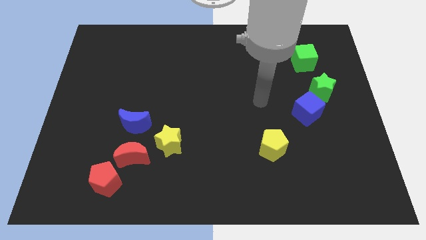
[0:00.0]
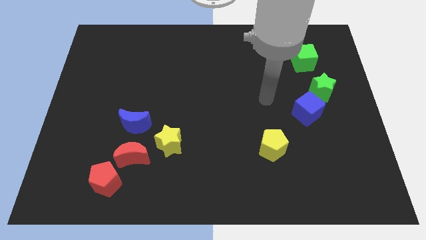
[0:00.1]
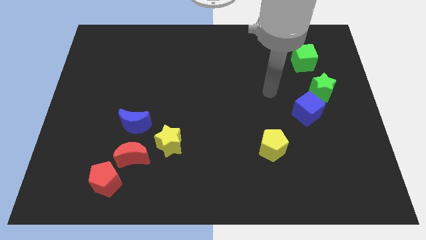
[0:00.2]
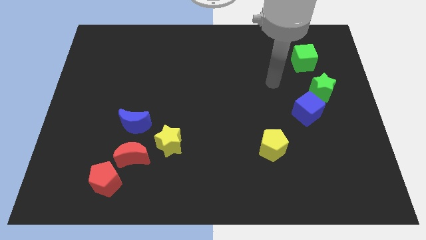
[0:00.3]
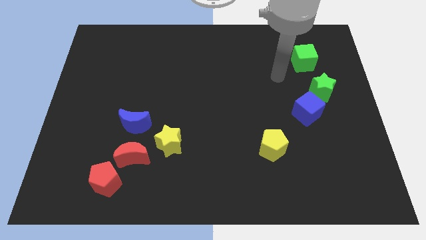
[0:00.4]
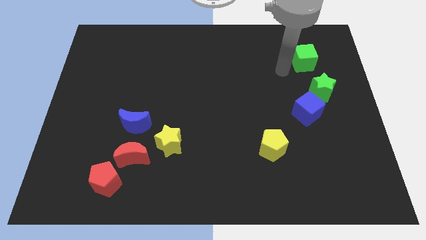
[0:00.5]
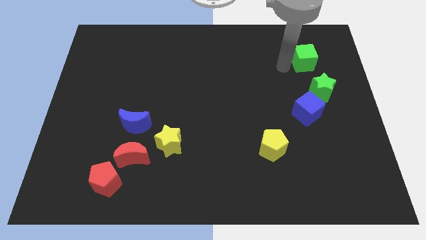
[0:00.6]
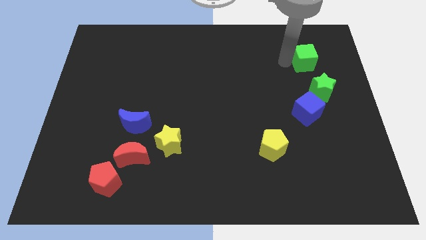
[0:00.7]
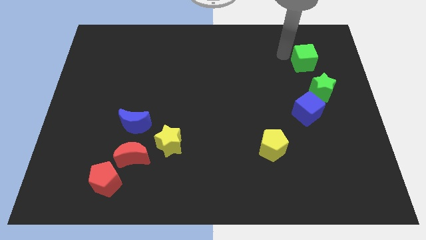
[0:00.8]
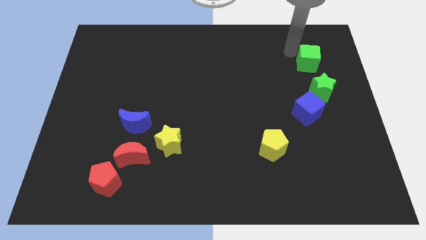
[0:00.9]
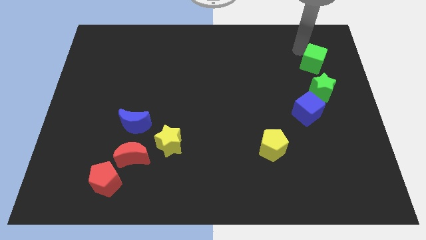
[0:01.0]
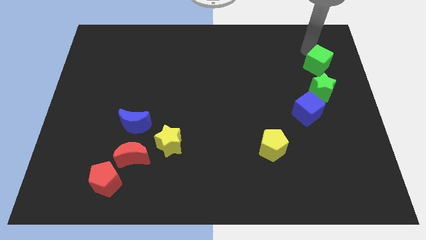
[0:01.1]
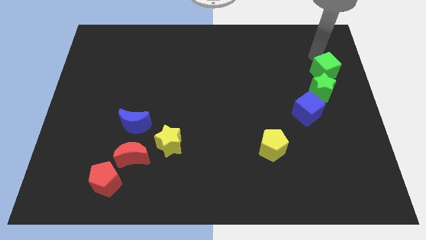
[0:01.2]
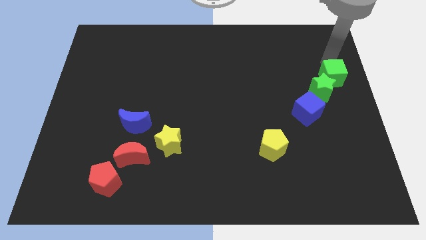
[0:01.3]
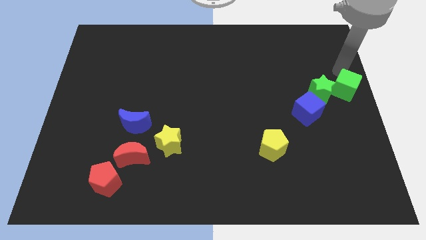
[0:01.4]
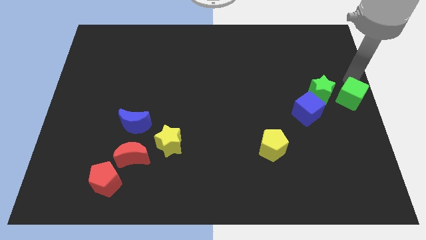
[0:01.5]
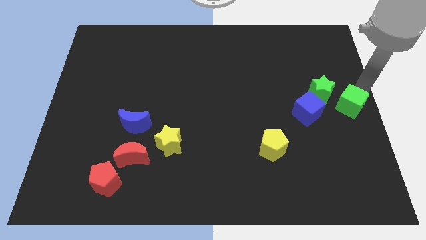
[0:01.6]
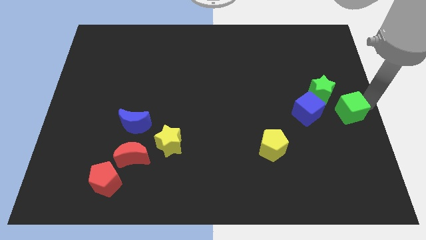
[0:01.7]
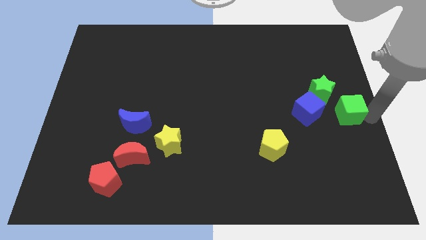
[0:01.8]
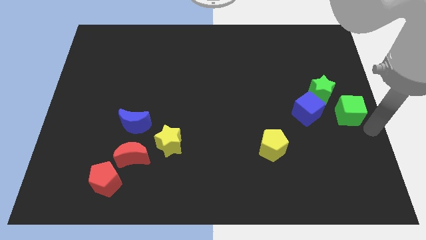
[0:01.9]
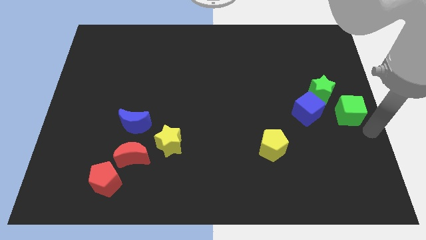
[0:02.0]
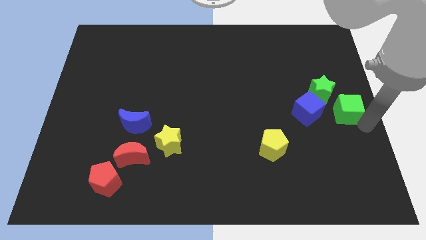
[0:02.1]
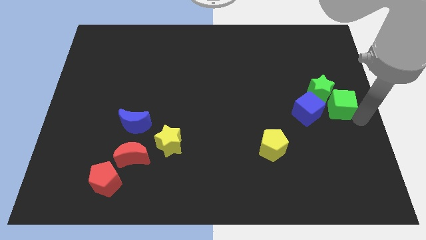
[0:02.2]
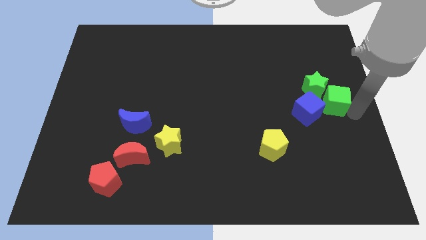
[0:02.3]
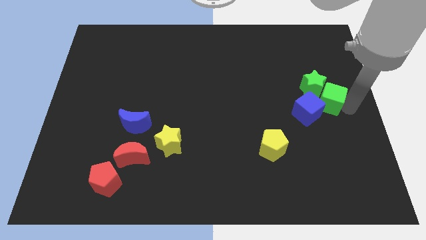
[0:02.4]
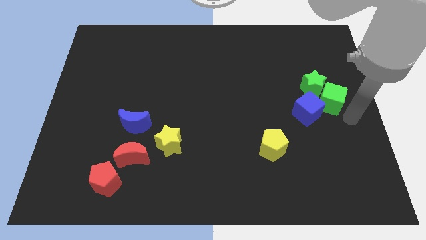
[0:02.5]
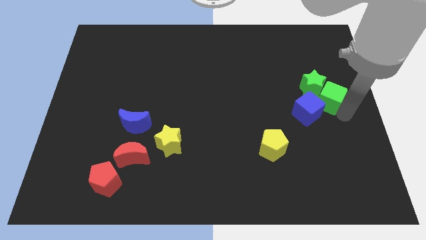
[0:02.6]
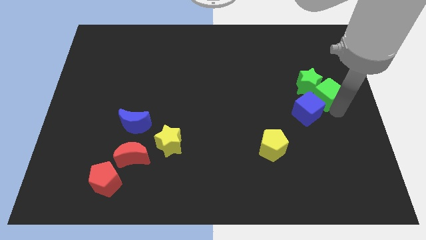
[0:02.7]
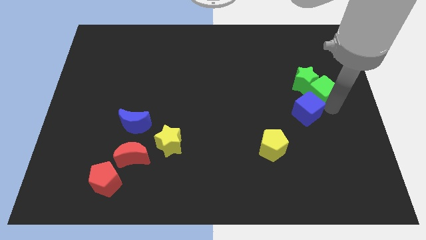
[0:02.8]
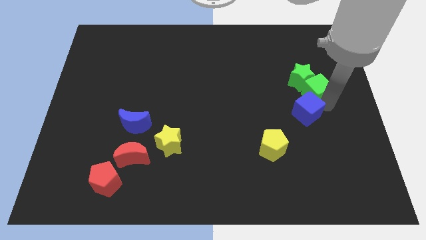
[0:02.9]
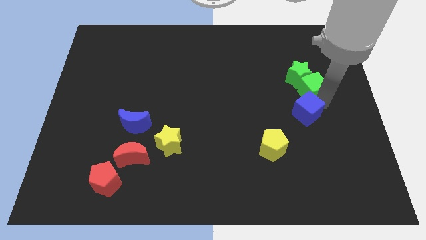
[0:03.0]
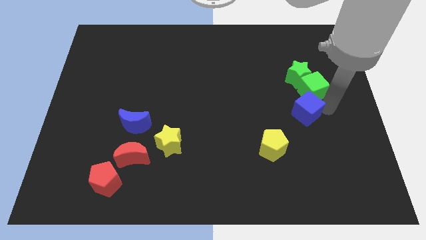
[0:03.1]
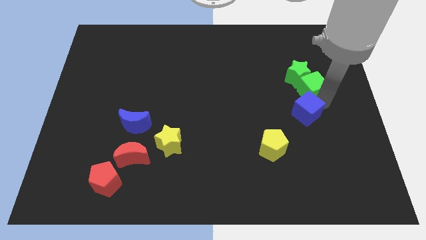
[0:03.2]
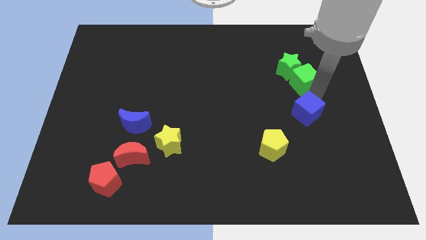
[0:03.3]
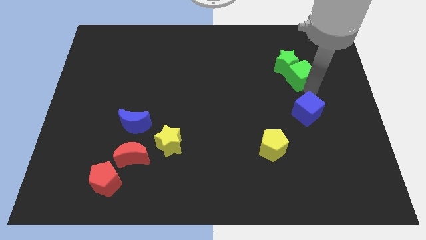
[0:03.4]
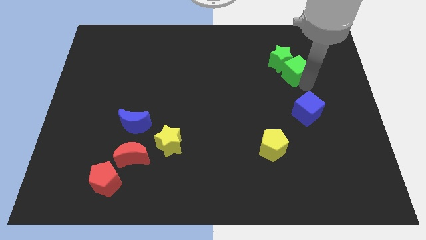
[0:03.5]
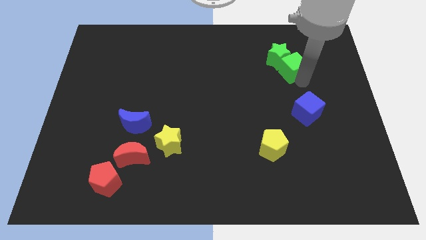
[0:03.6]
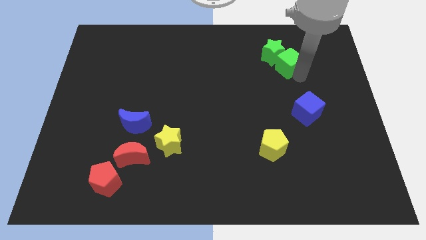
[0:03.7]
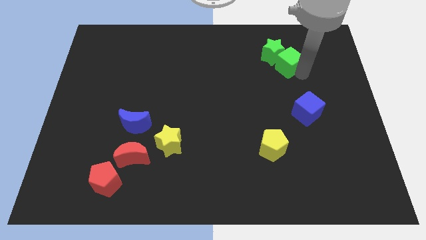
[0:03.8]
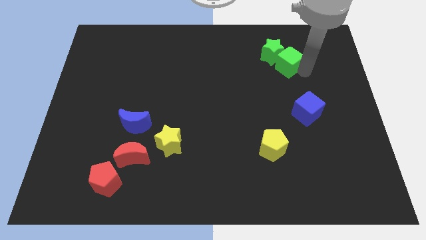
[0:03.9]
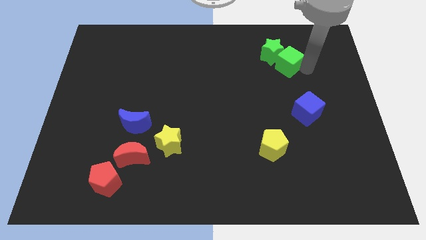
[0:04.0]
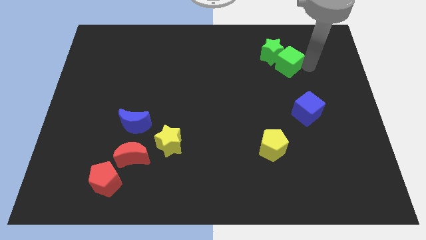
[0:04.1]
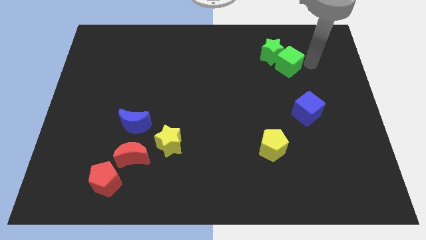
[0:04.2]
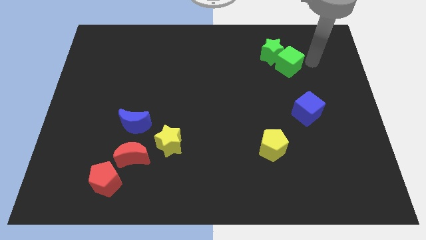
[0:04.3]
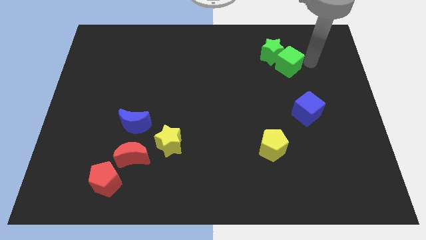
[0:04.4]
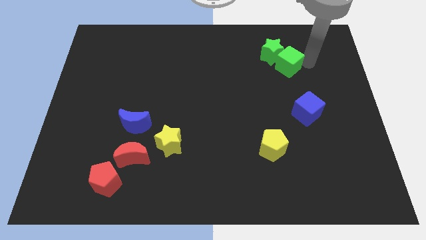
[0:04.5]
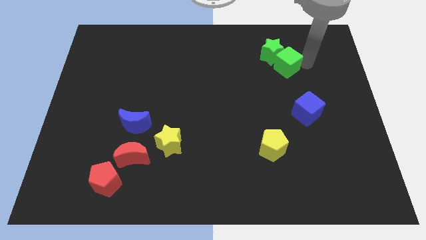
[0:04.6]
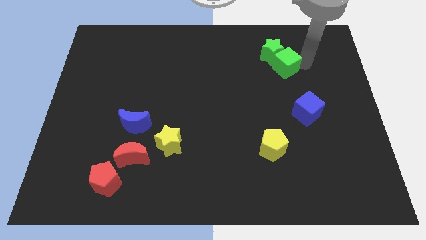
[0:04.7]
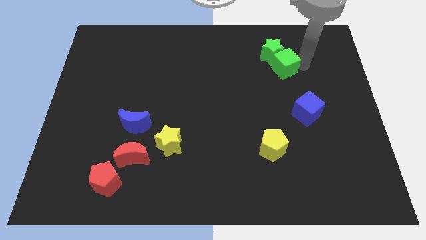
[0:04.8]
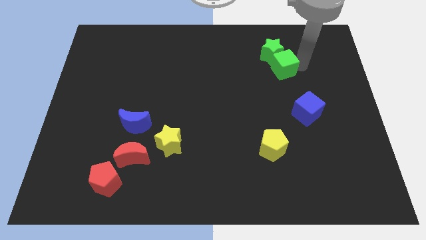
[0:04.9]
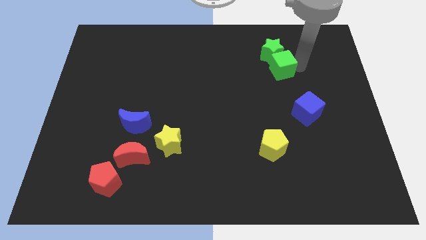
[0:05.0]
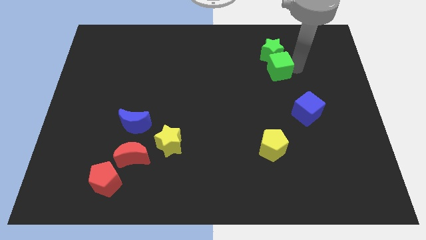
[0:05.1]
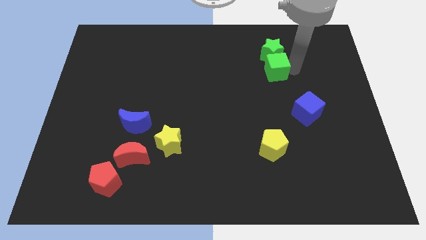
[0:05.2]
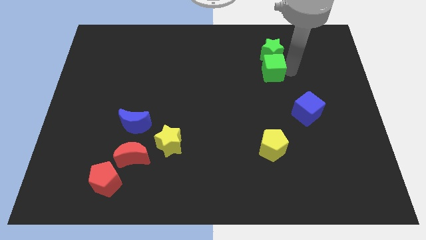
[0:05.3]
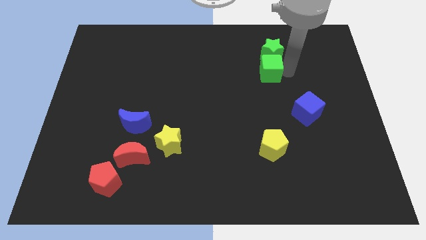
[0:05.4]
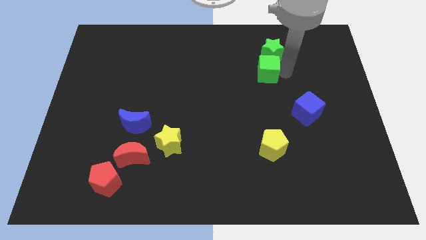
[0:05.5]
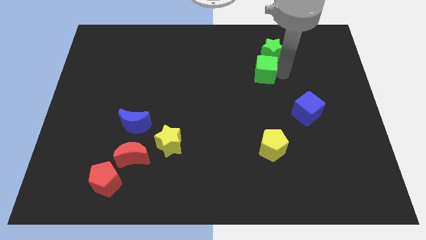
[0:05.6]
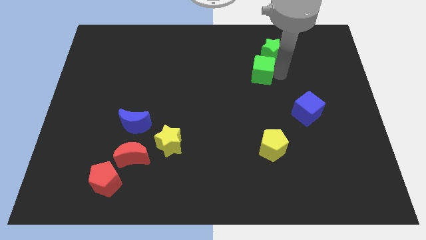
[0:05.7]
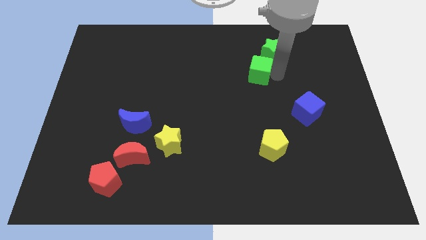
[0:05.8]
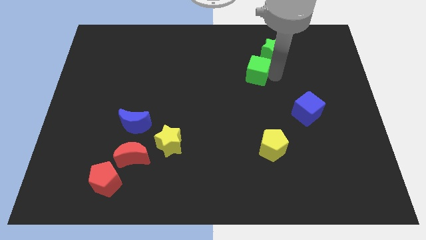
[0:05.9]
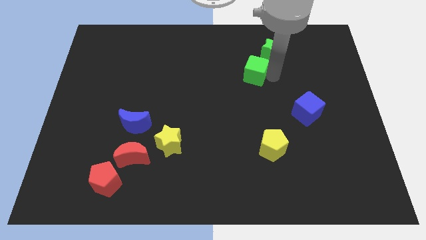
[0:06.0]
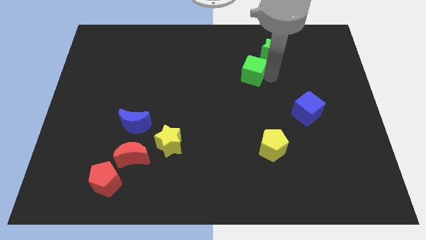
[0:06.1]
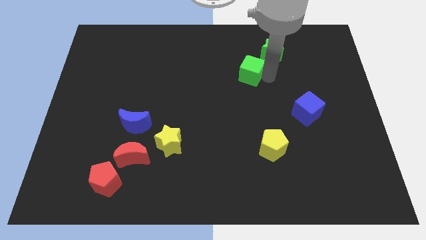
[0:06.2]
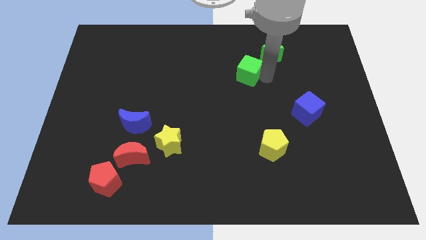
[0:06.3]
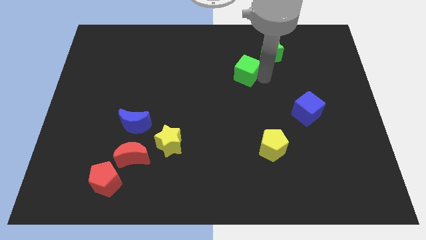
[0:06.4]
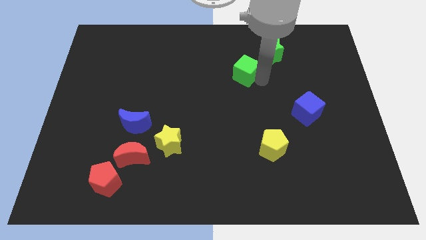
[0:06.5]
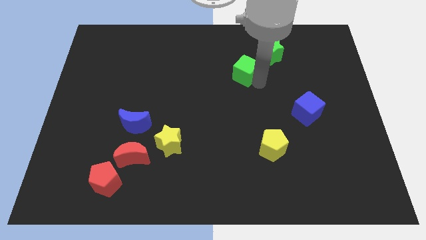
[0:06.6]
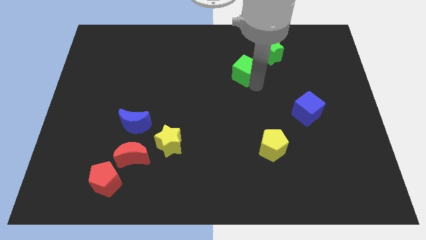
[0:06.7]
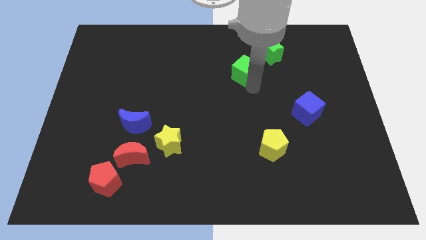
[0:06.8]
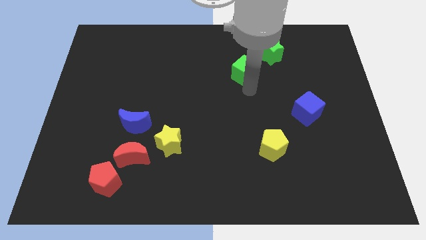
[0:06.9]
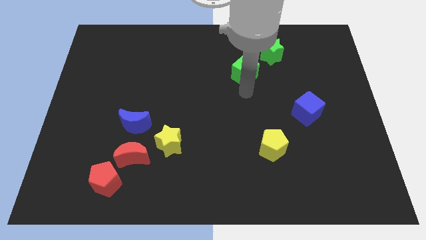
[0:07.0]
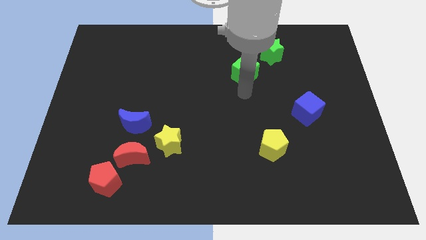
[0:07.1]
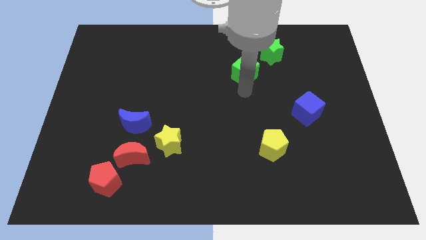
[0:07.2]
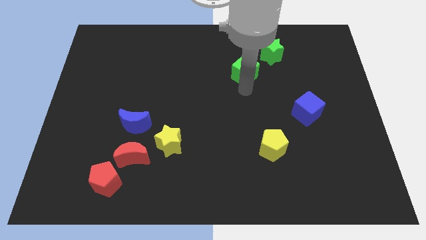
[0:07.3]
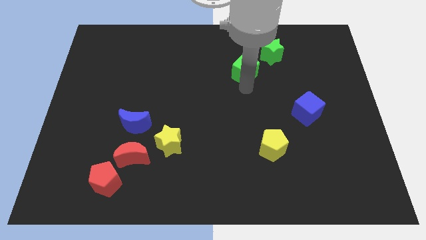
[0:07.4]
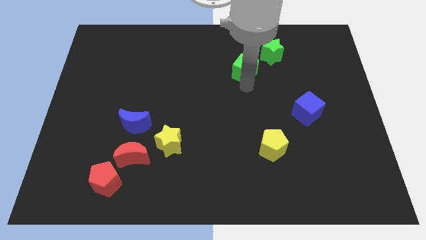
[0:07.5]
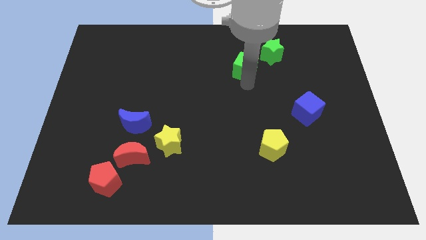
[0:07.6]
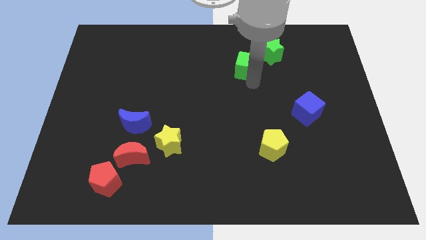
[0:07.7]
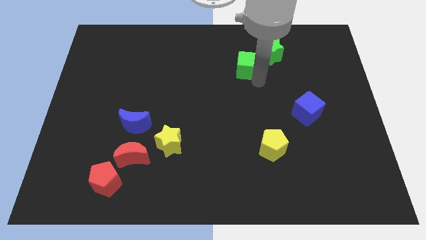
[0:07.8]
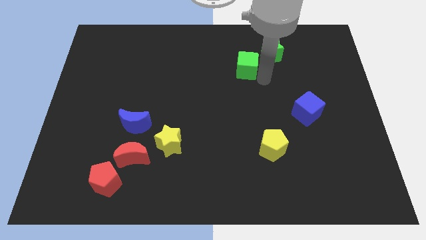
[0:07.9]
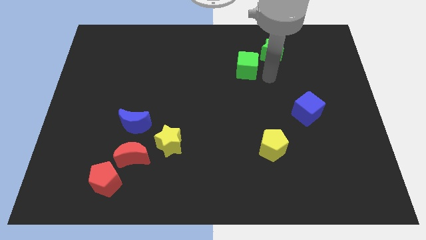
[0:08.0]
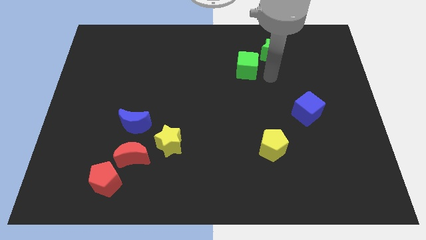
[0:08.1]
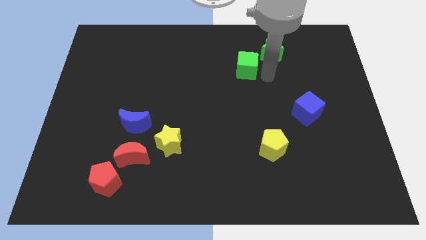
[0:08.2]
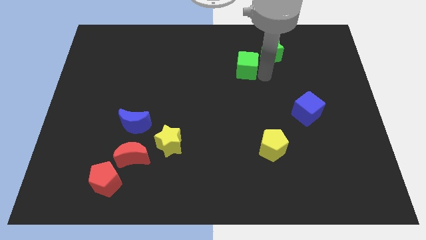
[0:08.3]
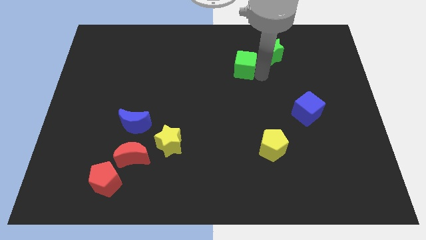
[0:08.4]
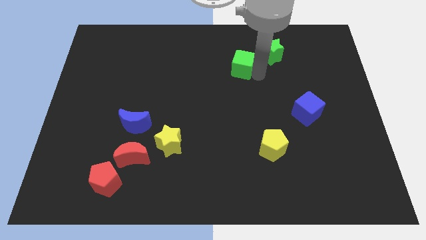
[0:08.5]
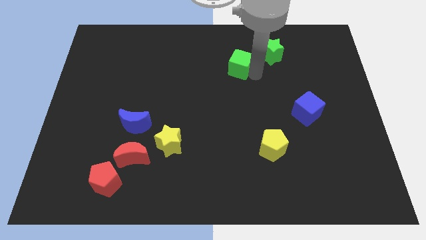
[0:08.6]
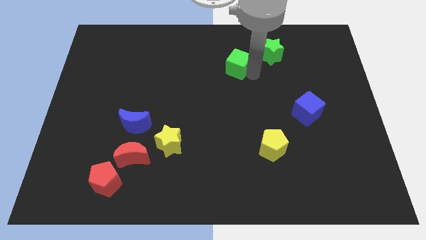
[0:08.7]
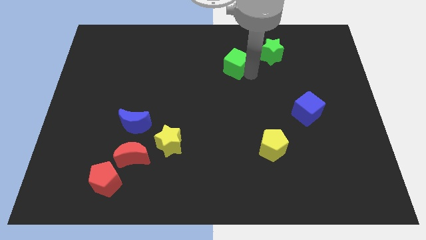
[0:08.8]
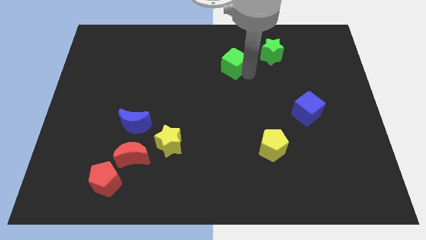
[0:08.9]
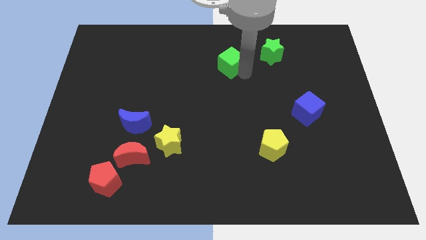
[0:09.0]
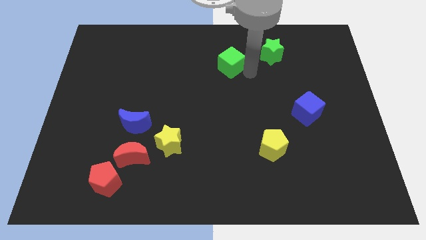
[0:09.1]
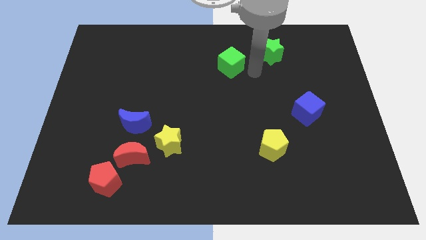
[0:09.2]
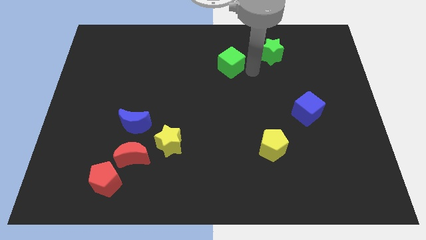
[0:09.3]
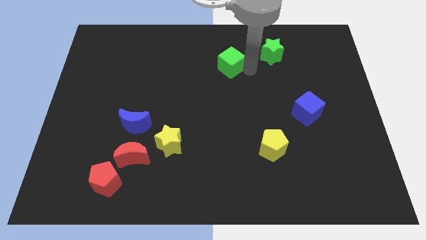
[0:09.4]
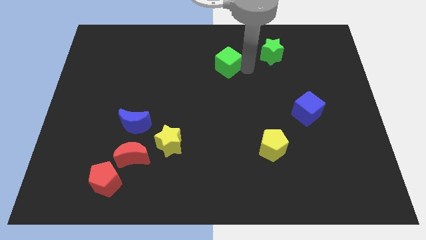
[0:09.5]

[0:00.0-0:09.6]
slide the green cube to the left
